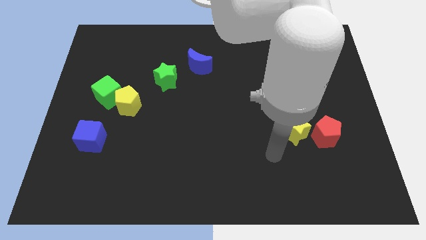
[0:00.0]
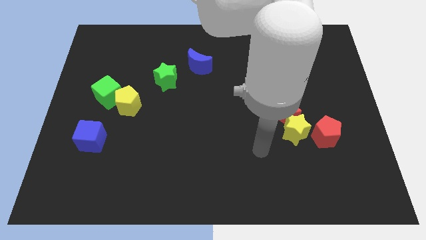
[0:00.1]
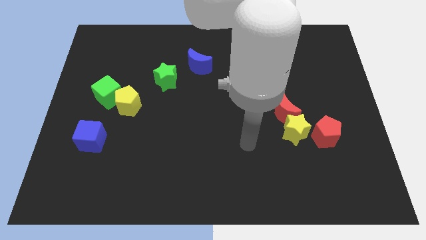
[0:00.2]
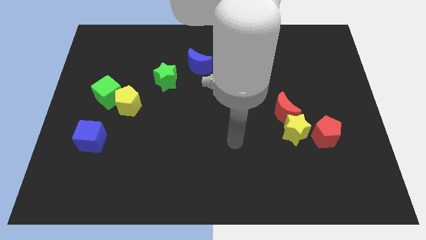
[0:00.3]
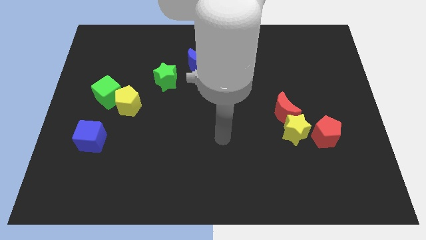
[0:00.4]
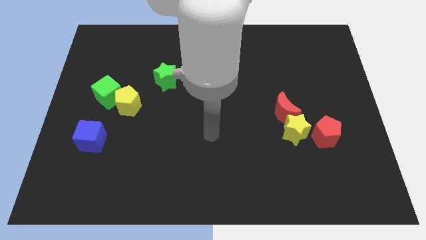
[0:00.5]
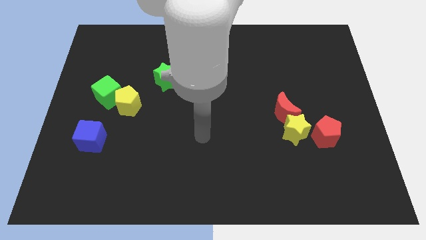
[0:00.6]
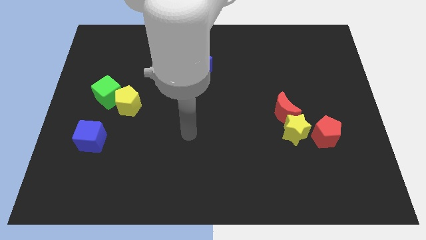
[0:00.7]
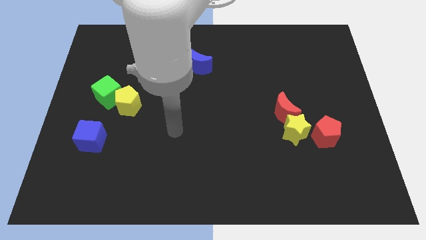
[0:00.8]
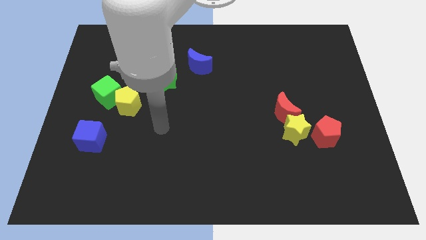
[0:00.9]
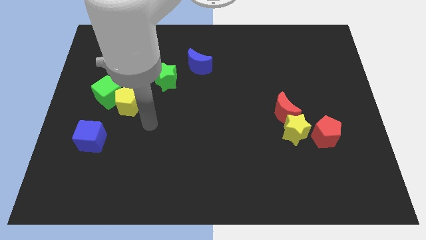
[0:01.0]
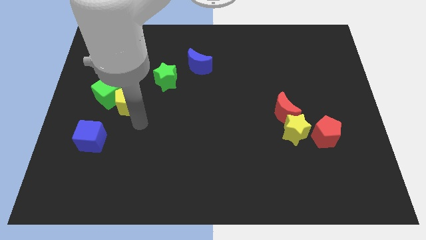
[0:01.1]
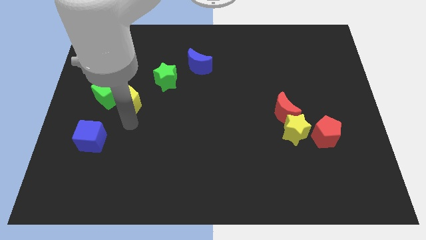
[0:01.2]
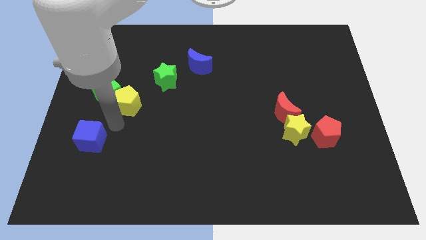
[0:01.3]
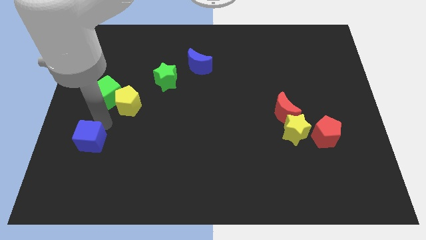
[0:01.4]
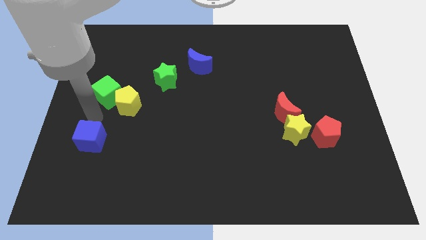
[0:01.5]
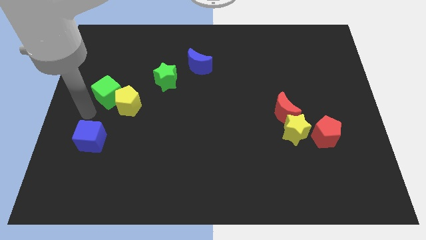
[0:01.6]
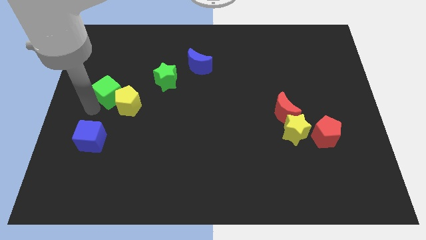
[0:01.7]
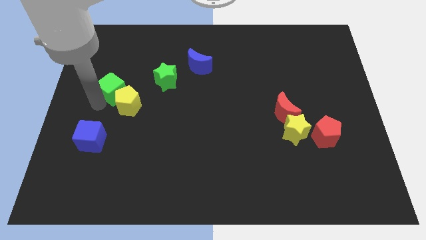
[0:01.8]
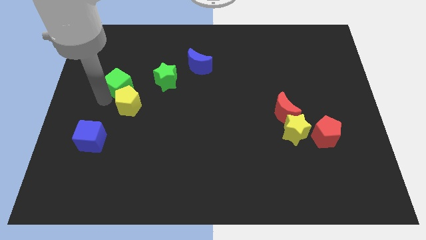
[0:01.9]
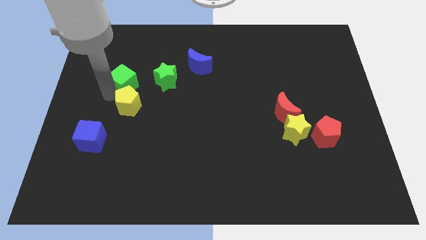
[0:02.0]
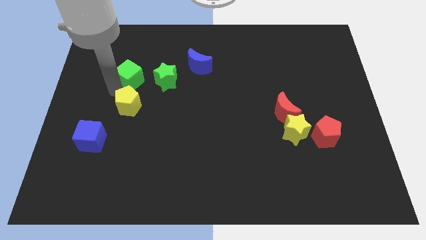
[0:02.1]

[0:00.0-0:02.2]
push the green cube a little diagonally upwards and to the right

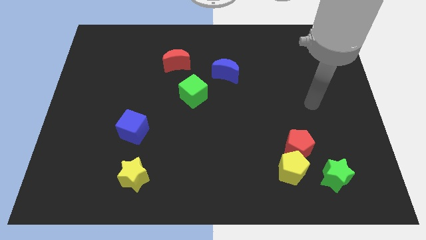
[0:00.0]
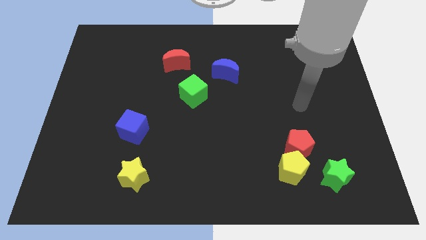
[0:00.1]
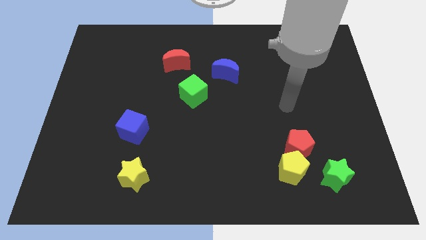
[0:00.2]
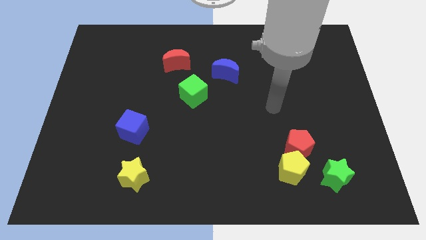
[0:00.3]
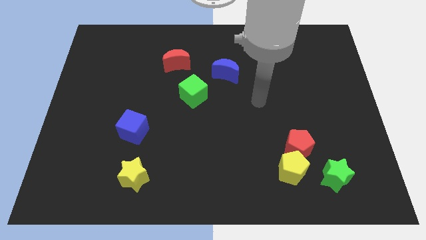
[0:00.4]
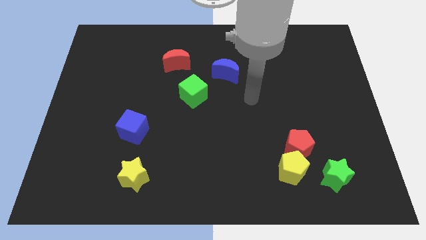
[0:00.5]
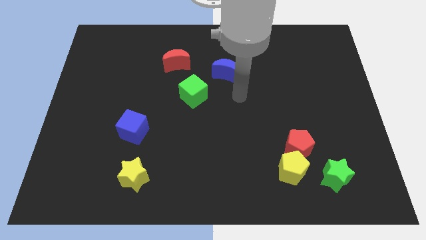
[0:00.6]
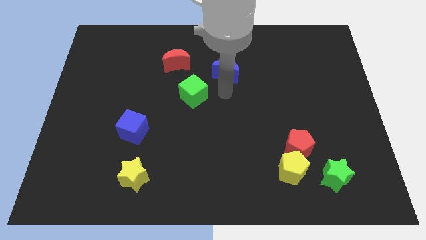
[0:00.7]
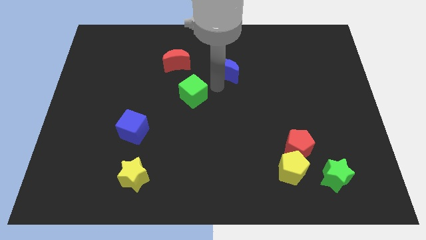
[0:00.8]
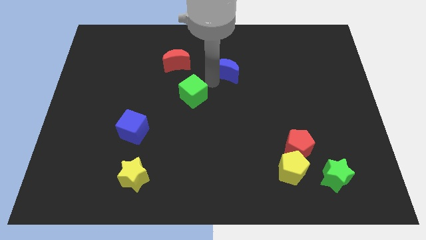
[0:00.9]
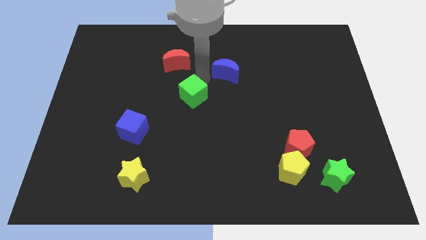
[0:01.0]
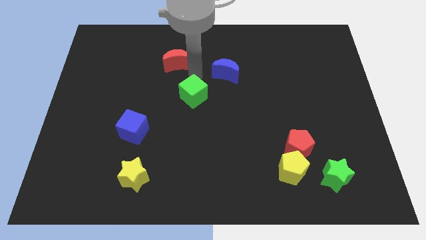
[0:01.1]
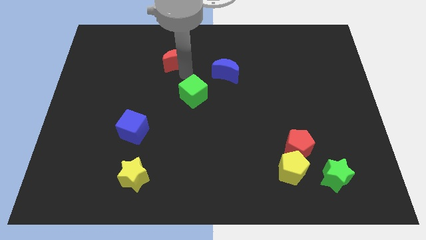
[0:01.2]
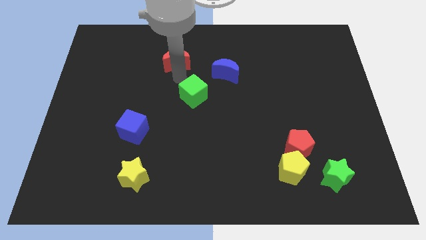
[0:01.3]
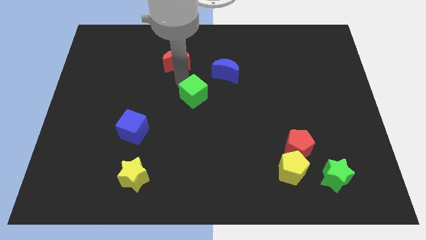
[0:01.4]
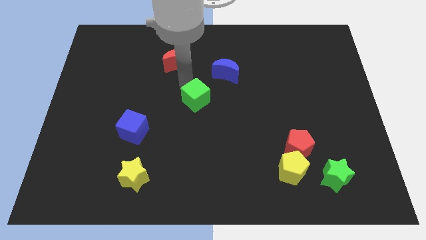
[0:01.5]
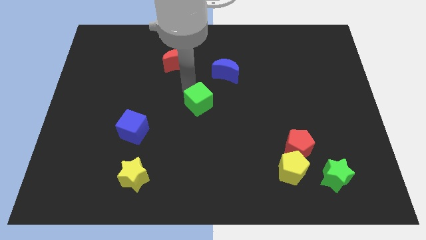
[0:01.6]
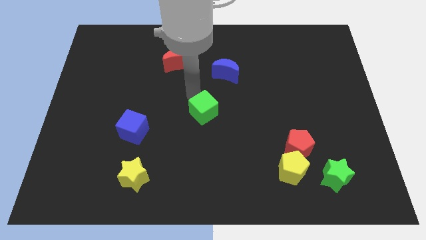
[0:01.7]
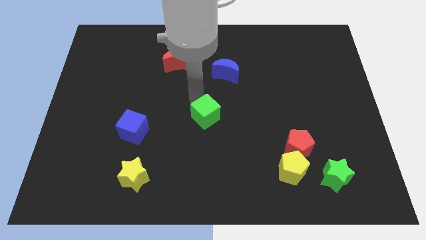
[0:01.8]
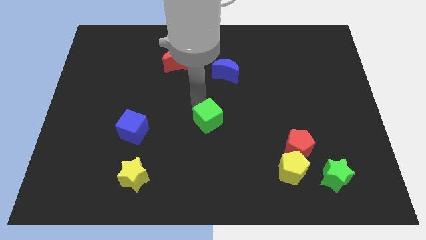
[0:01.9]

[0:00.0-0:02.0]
slide the green cube down and then to the right a bit

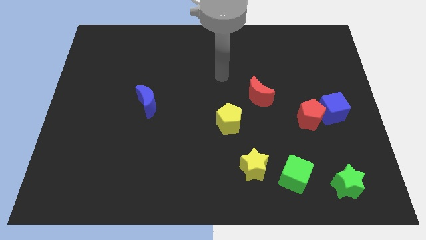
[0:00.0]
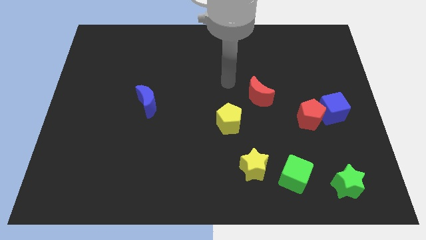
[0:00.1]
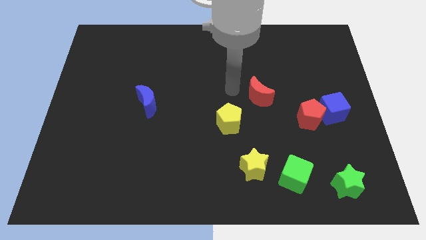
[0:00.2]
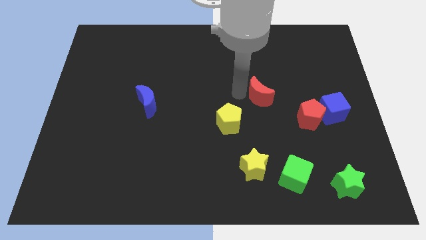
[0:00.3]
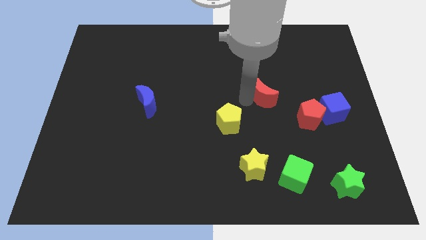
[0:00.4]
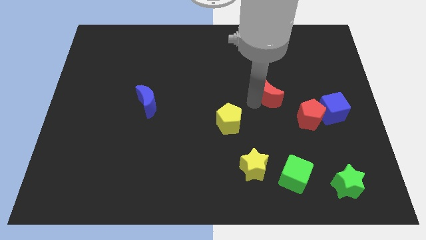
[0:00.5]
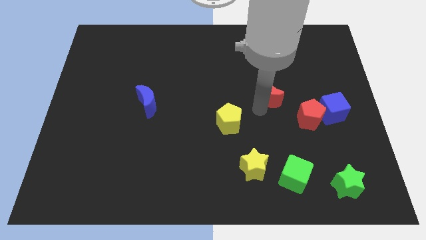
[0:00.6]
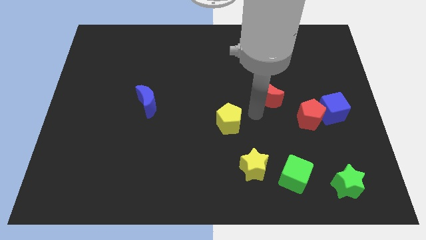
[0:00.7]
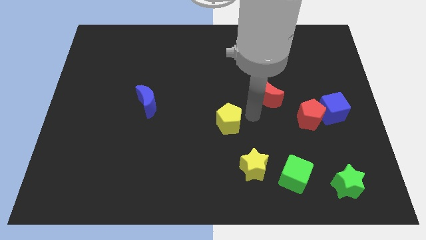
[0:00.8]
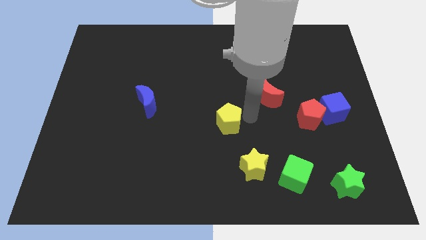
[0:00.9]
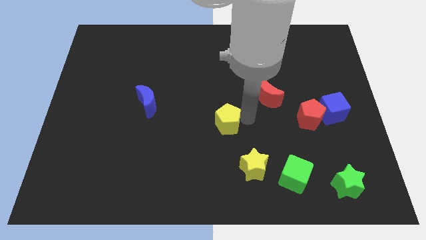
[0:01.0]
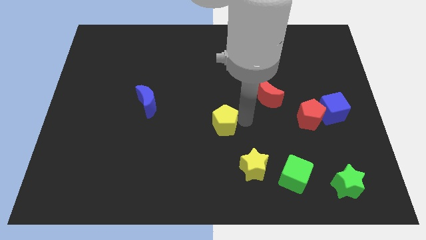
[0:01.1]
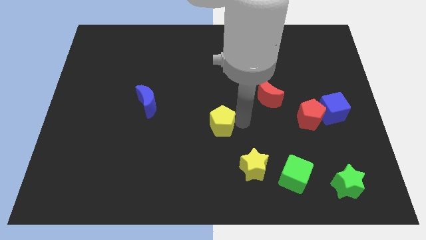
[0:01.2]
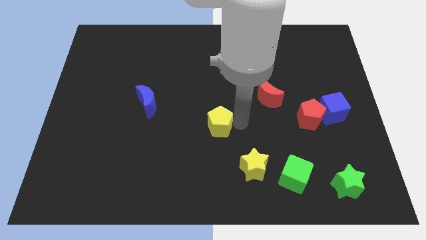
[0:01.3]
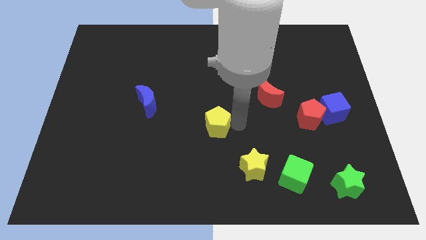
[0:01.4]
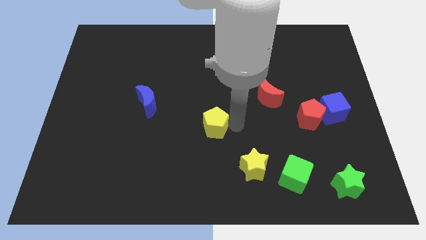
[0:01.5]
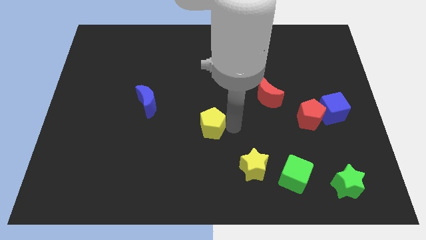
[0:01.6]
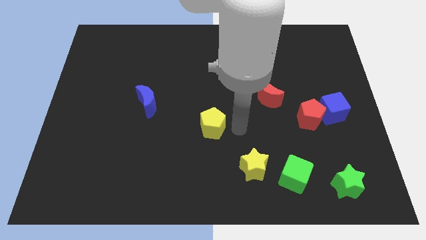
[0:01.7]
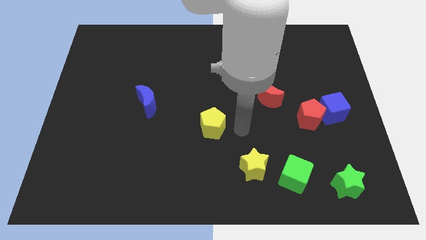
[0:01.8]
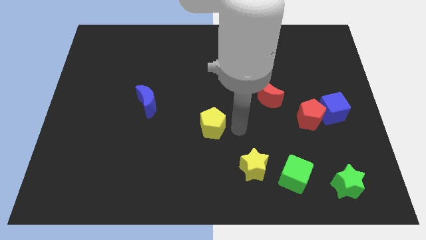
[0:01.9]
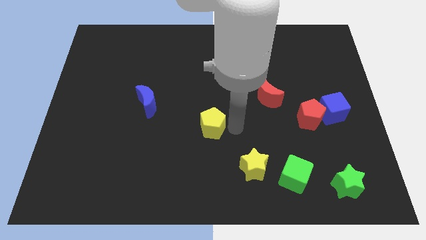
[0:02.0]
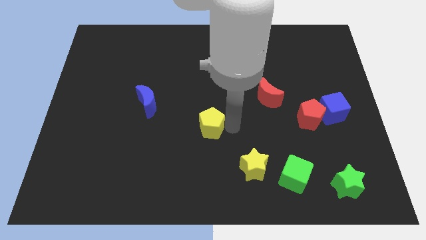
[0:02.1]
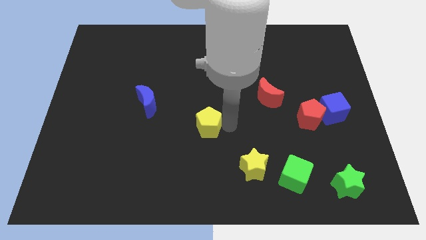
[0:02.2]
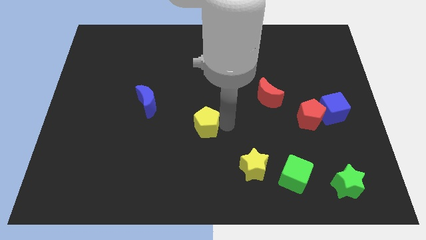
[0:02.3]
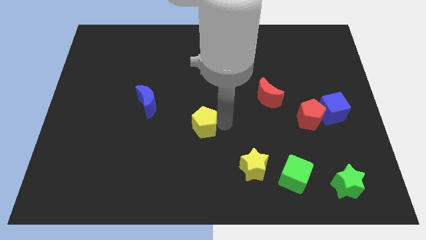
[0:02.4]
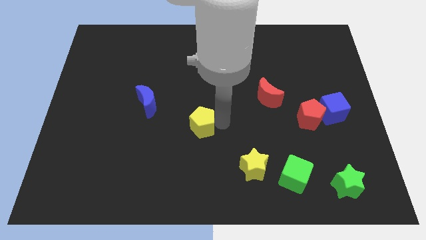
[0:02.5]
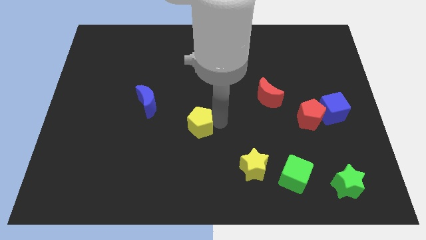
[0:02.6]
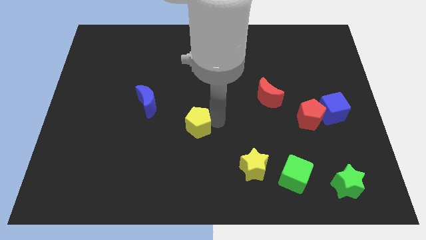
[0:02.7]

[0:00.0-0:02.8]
slide the yellow pentagon a little bit left

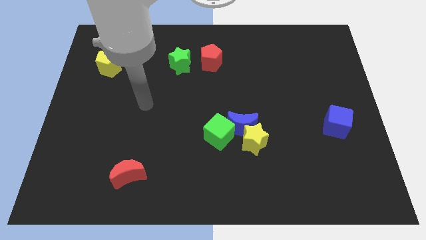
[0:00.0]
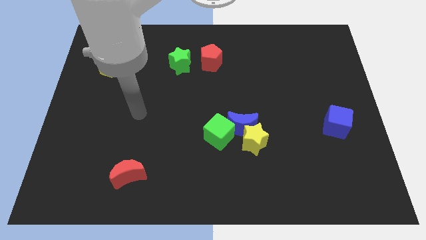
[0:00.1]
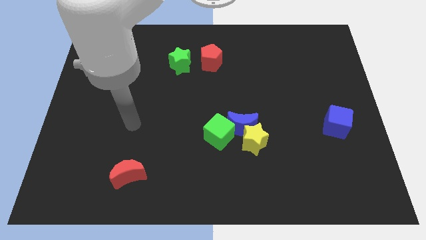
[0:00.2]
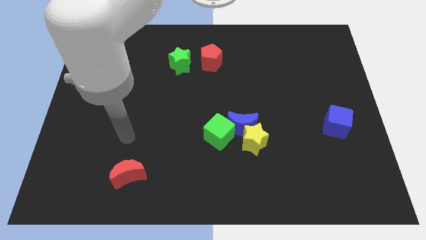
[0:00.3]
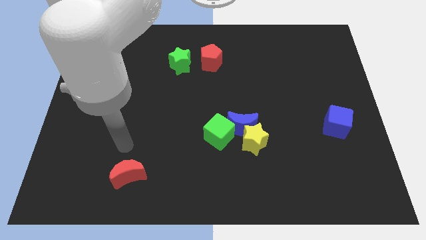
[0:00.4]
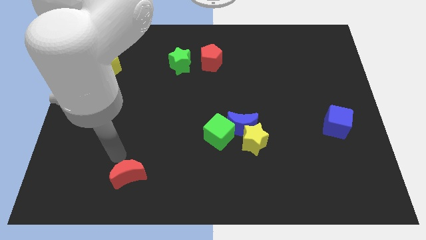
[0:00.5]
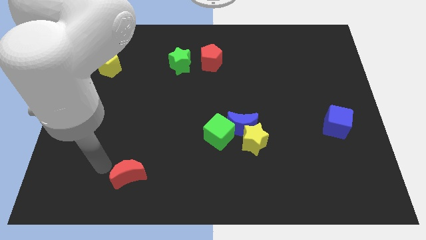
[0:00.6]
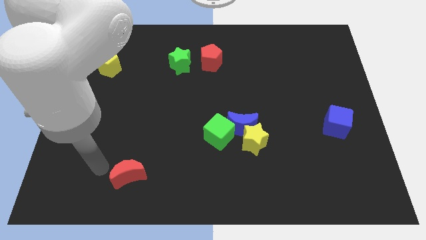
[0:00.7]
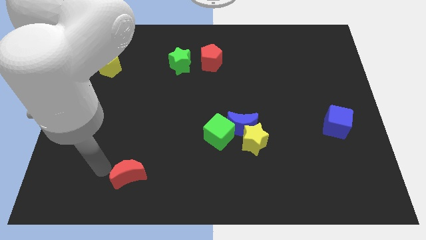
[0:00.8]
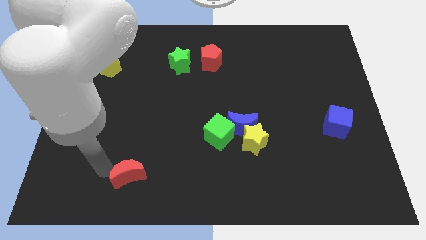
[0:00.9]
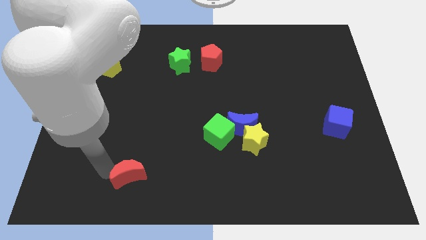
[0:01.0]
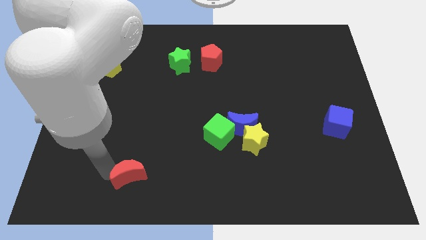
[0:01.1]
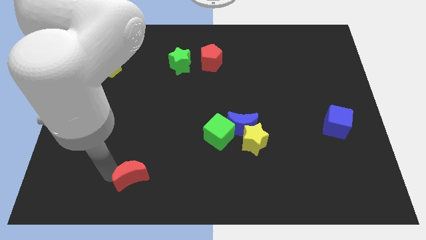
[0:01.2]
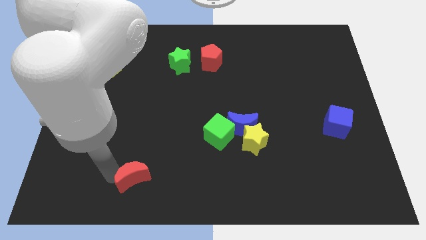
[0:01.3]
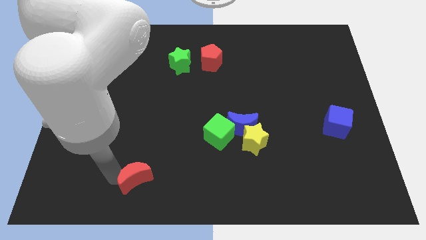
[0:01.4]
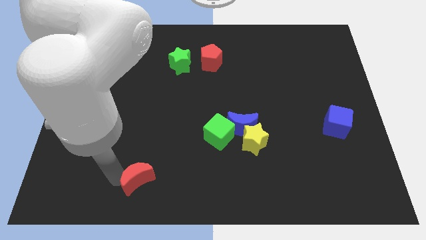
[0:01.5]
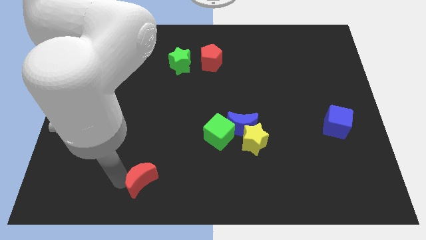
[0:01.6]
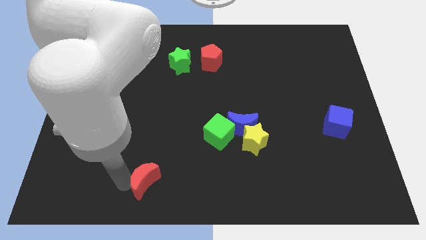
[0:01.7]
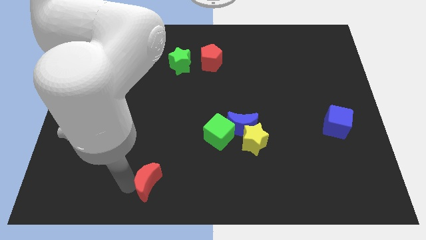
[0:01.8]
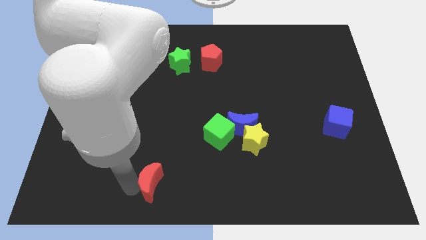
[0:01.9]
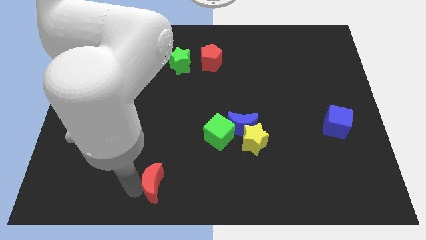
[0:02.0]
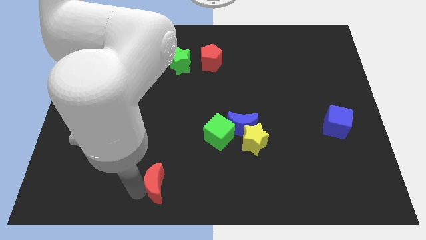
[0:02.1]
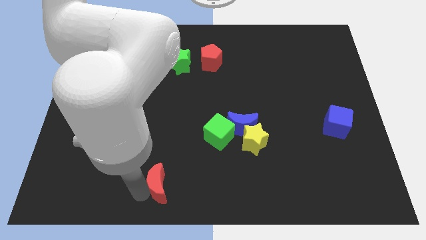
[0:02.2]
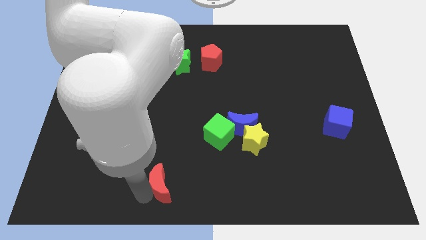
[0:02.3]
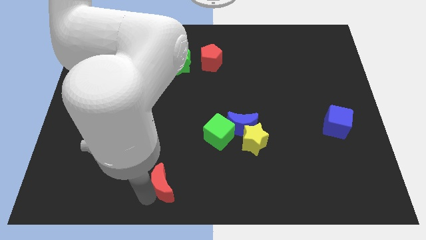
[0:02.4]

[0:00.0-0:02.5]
move the red moon a little right
